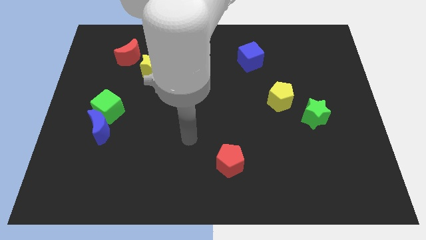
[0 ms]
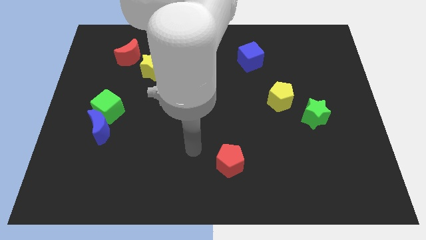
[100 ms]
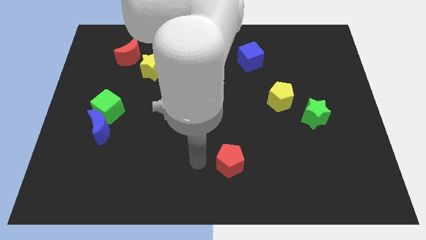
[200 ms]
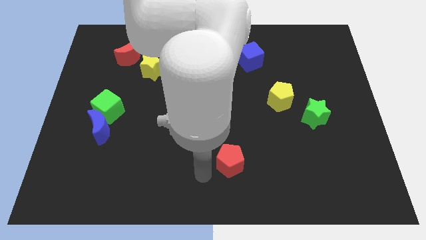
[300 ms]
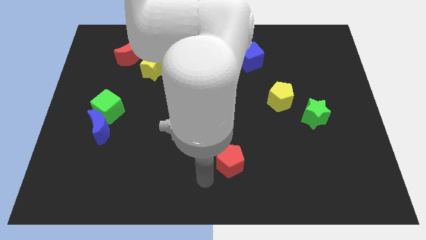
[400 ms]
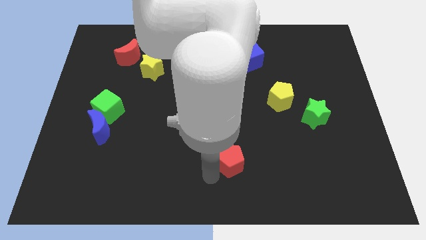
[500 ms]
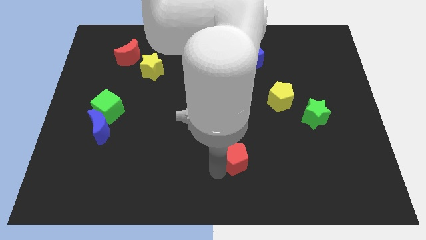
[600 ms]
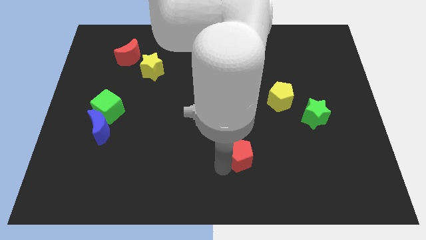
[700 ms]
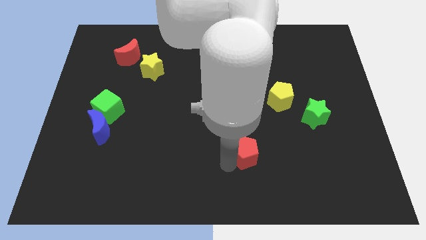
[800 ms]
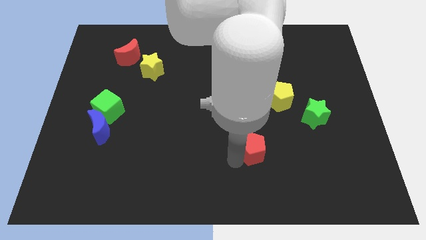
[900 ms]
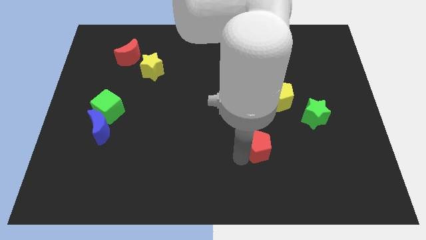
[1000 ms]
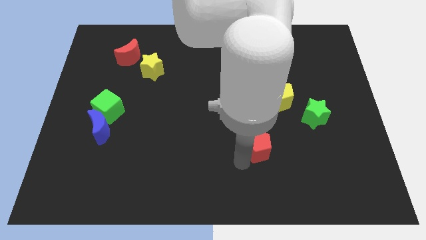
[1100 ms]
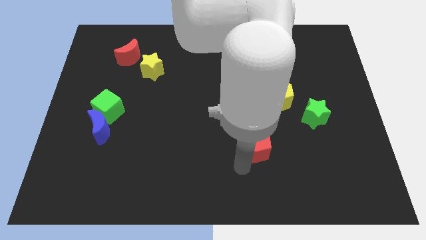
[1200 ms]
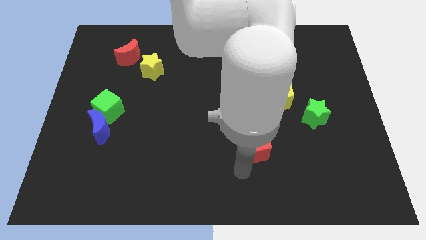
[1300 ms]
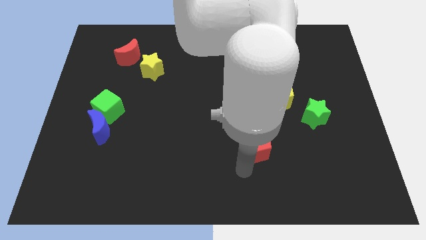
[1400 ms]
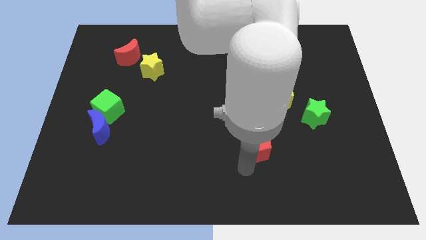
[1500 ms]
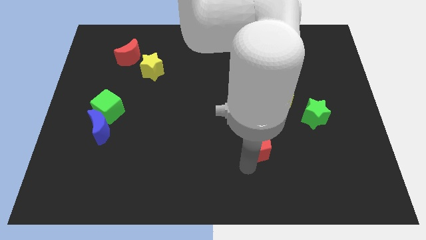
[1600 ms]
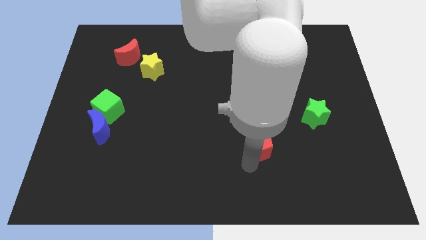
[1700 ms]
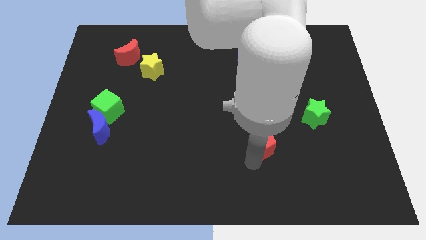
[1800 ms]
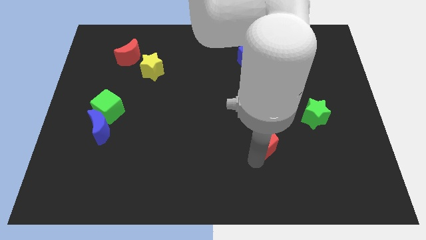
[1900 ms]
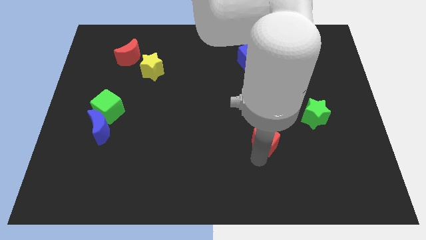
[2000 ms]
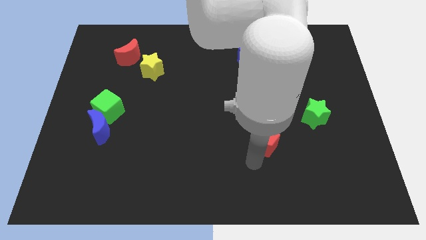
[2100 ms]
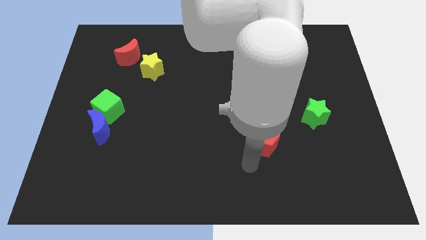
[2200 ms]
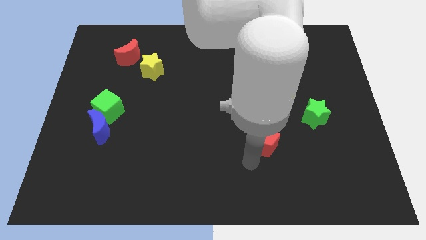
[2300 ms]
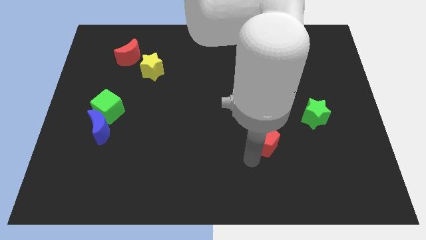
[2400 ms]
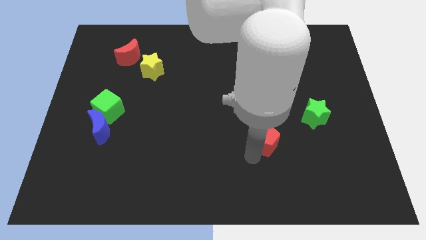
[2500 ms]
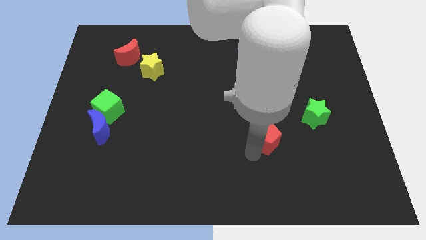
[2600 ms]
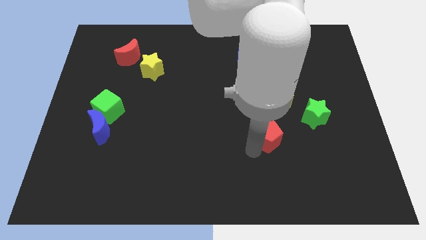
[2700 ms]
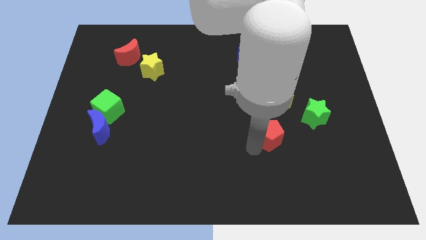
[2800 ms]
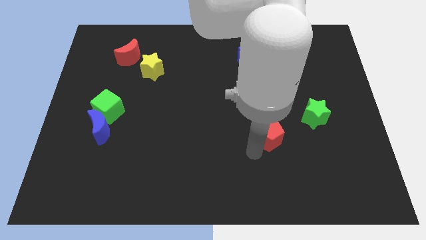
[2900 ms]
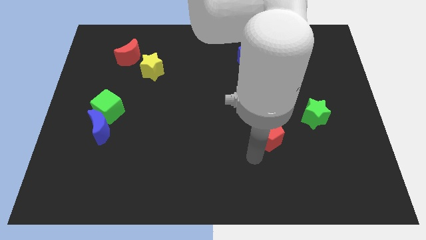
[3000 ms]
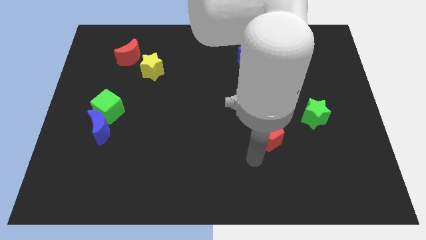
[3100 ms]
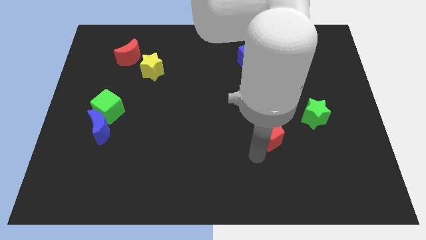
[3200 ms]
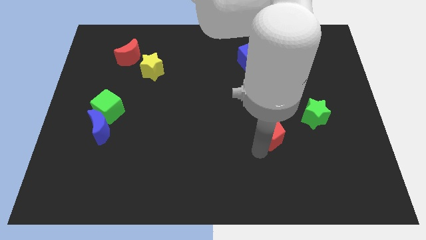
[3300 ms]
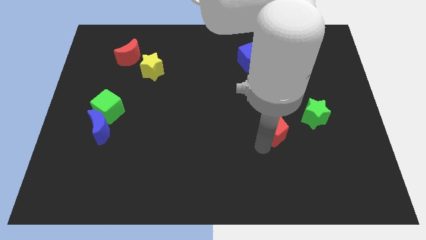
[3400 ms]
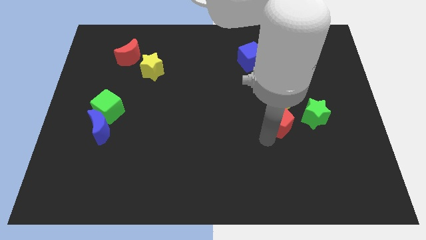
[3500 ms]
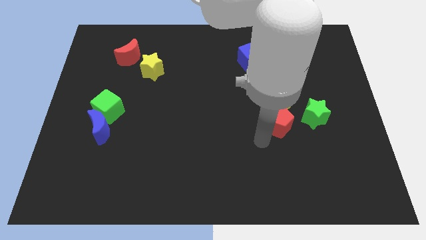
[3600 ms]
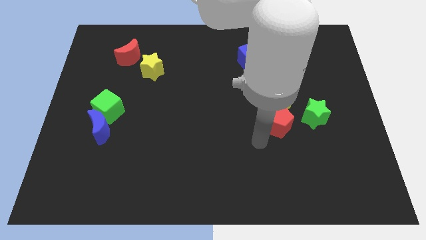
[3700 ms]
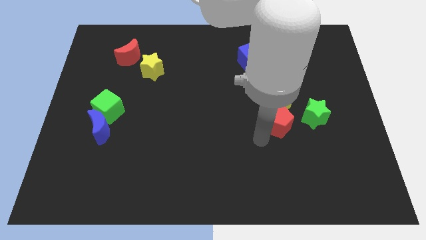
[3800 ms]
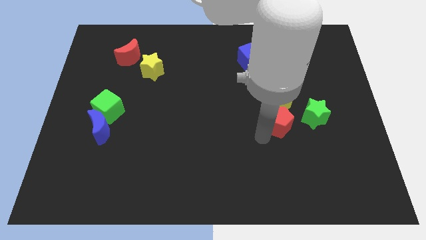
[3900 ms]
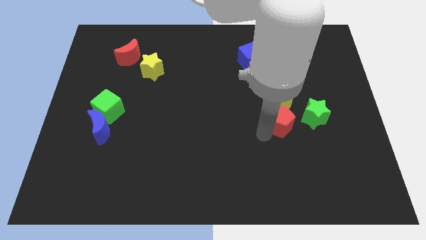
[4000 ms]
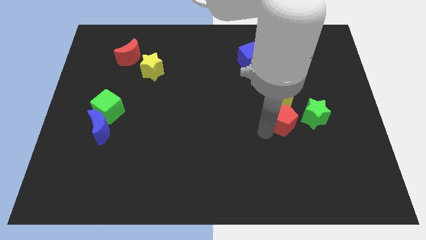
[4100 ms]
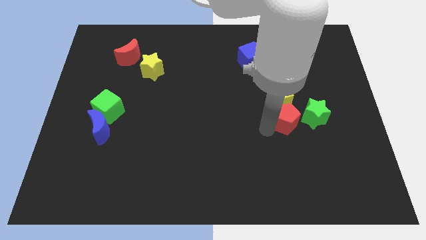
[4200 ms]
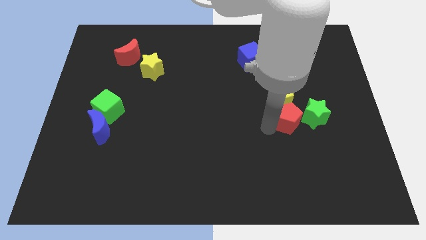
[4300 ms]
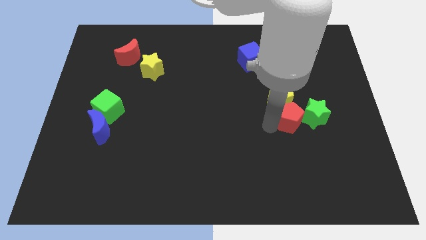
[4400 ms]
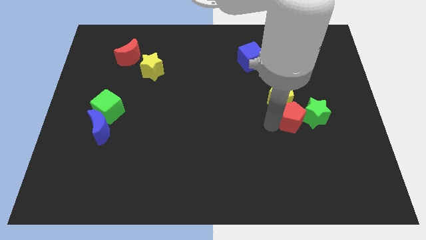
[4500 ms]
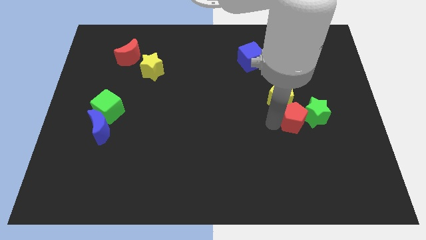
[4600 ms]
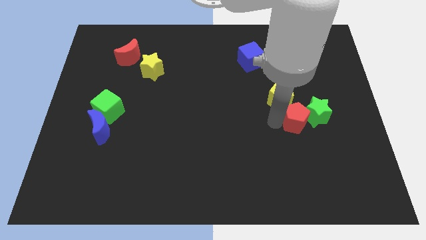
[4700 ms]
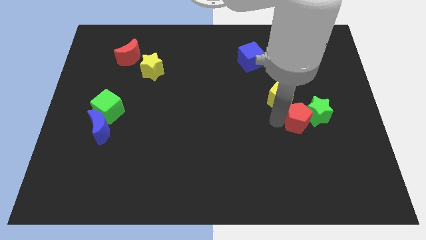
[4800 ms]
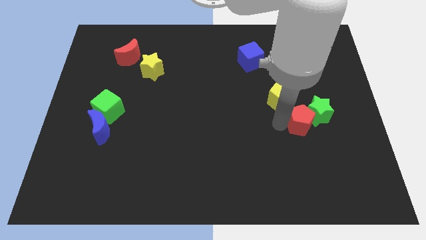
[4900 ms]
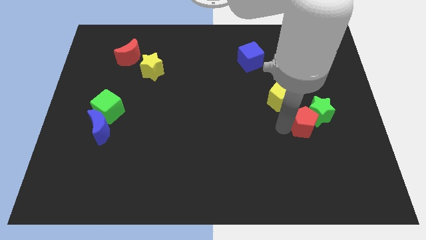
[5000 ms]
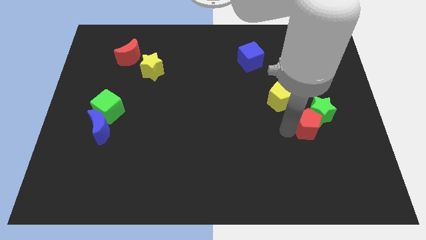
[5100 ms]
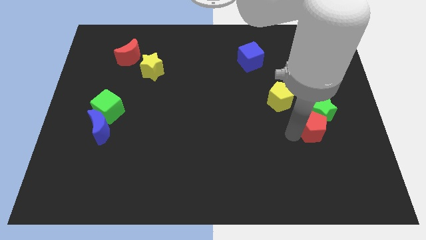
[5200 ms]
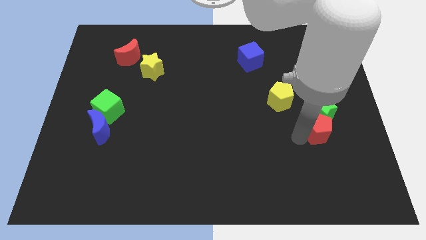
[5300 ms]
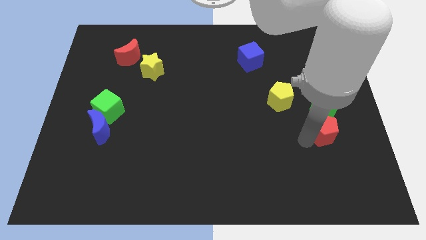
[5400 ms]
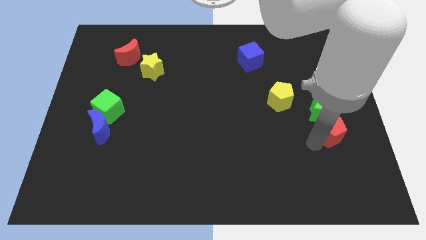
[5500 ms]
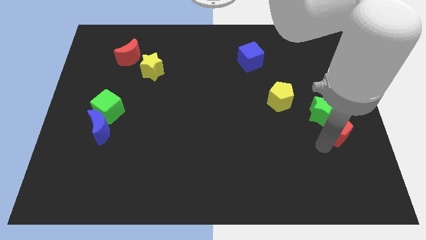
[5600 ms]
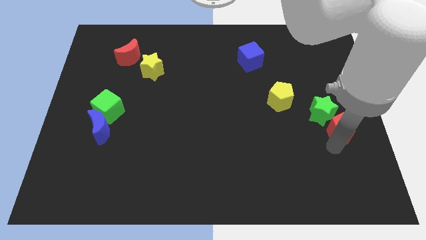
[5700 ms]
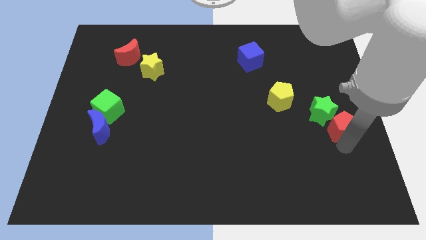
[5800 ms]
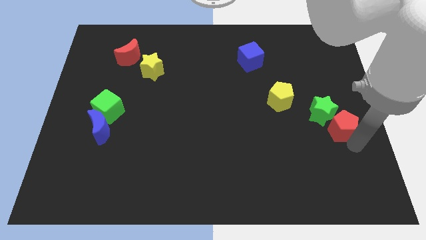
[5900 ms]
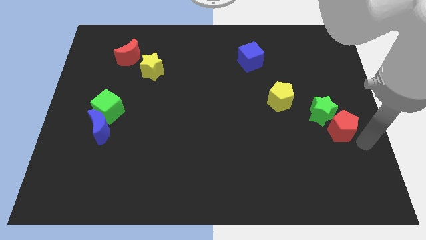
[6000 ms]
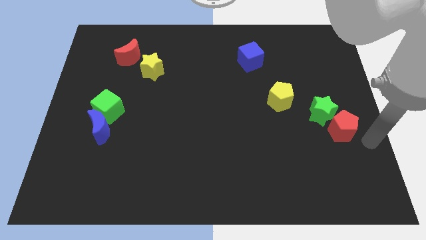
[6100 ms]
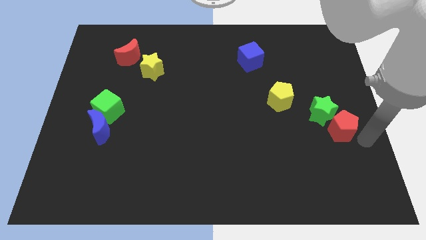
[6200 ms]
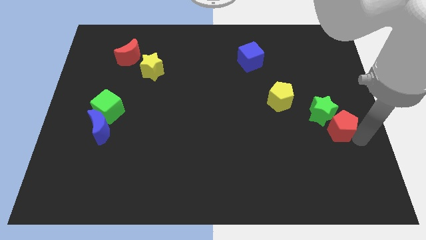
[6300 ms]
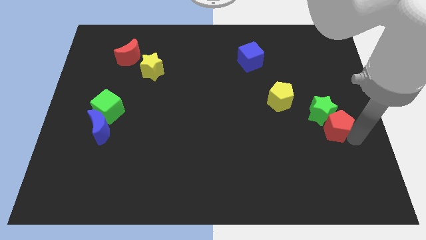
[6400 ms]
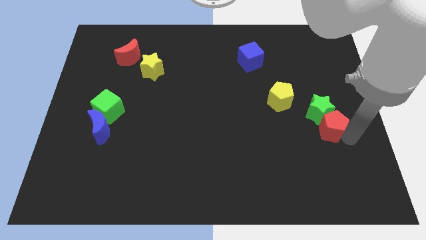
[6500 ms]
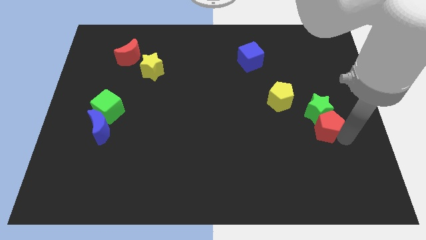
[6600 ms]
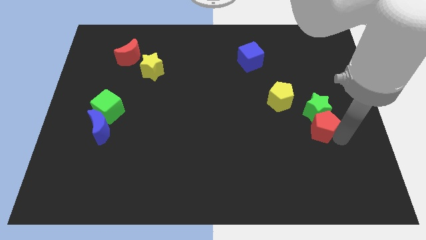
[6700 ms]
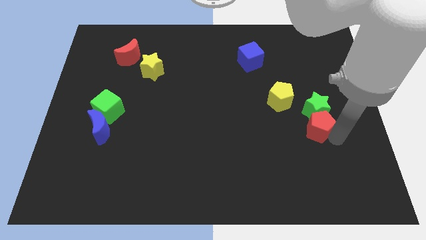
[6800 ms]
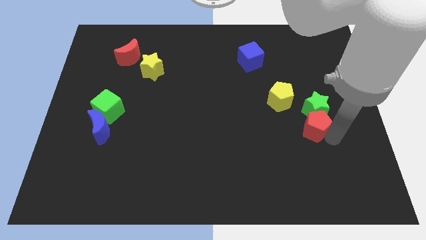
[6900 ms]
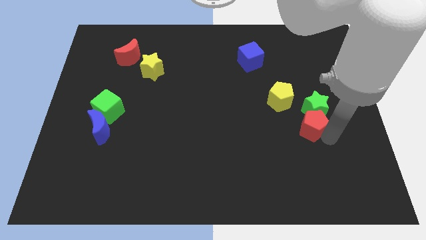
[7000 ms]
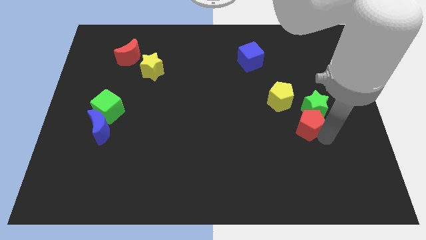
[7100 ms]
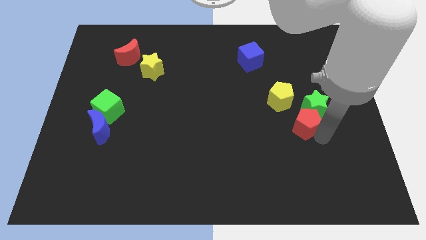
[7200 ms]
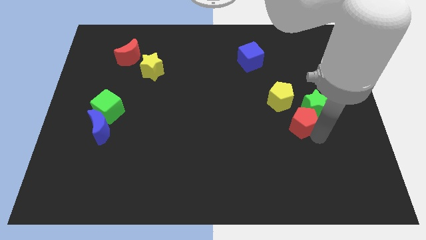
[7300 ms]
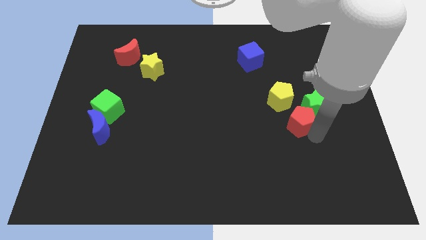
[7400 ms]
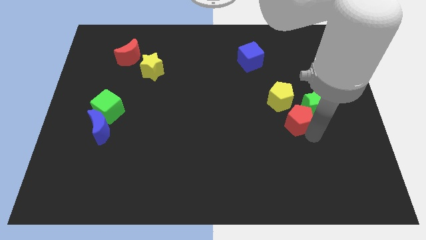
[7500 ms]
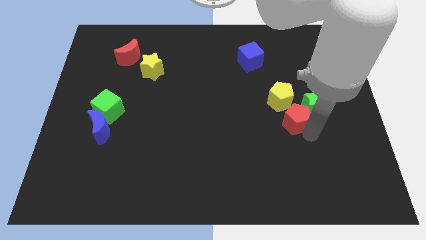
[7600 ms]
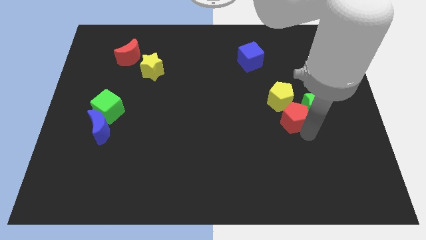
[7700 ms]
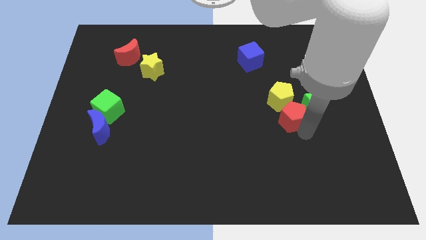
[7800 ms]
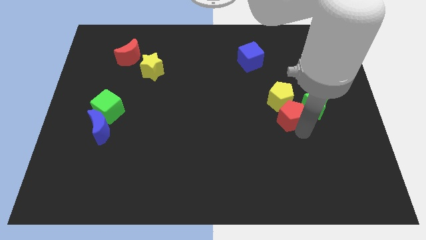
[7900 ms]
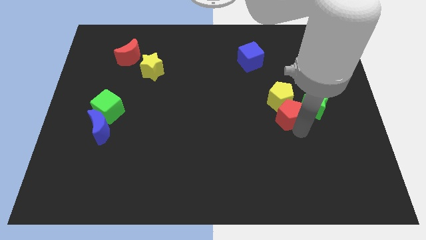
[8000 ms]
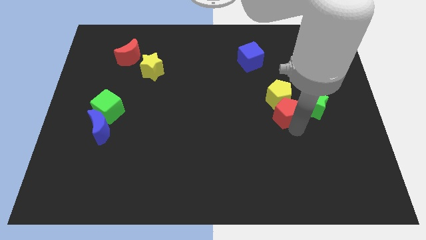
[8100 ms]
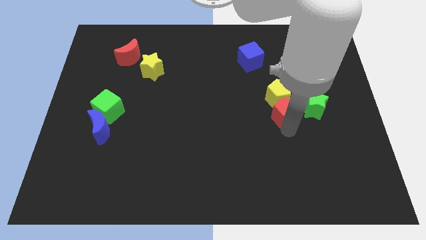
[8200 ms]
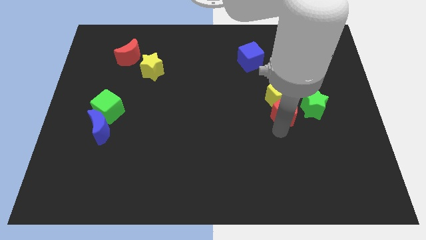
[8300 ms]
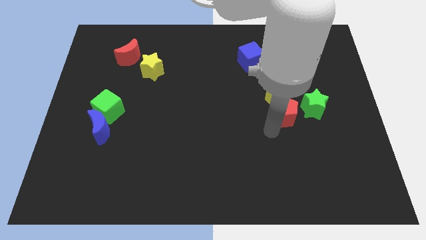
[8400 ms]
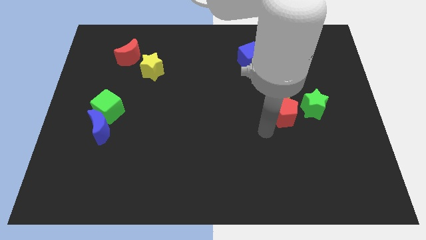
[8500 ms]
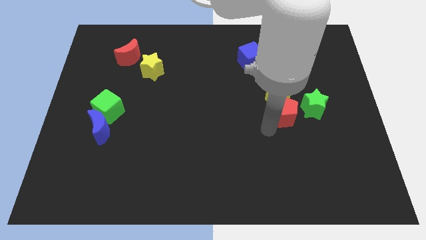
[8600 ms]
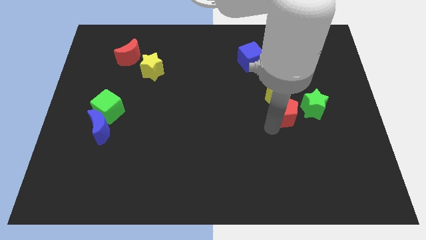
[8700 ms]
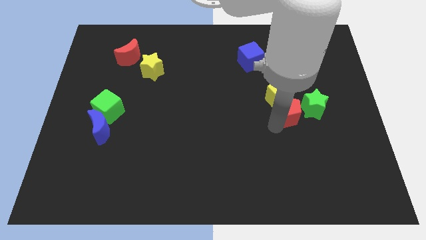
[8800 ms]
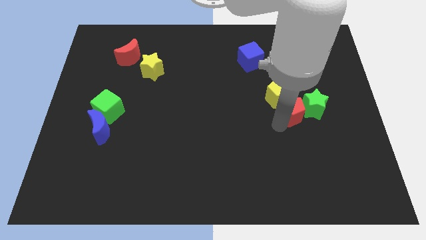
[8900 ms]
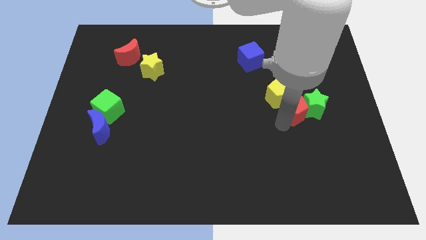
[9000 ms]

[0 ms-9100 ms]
move the red pentagon diagonally upwards and to the right
